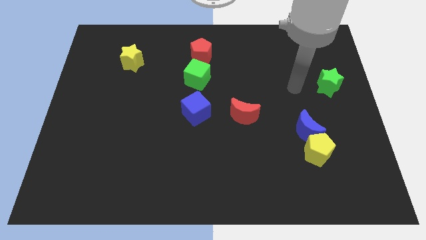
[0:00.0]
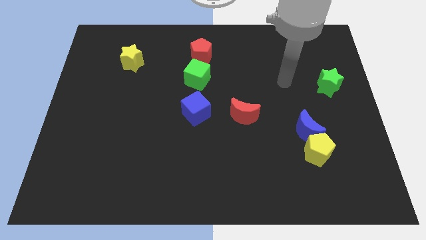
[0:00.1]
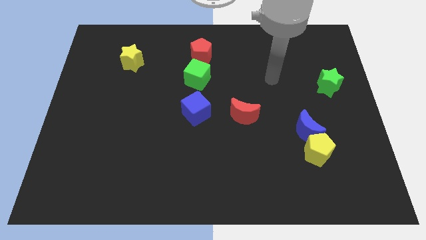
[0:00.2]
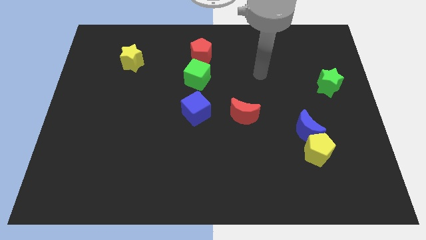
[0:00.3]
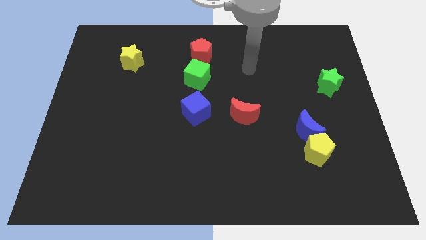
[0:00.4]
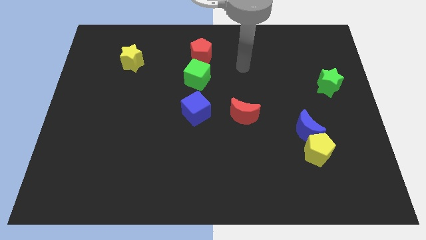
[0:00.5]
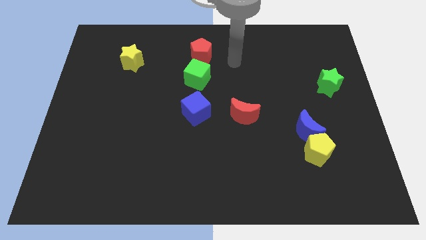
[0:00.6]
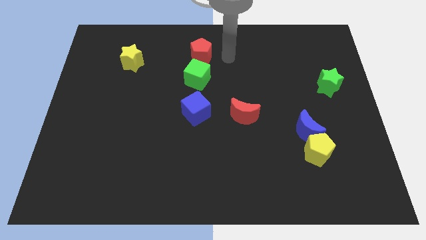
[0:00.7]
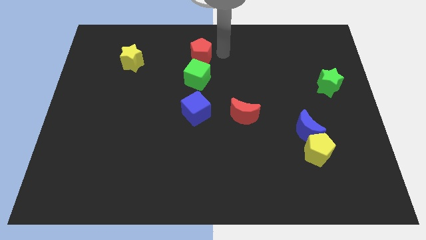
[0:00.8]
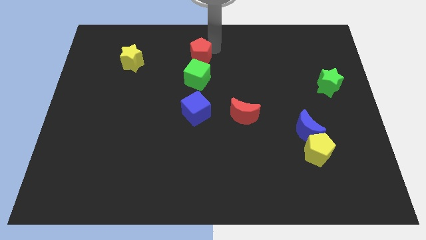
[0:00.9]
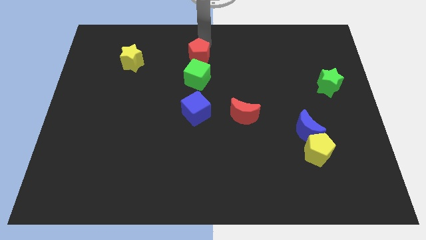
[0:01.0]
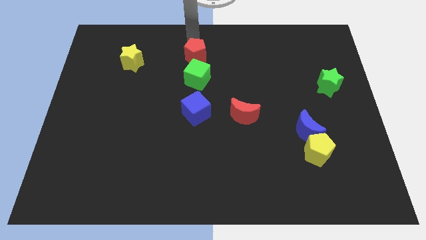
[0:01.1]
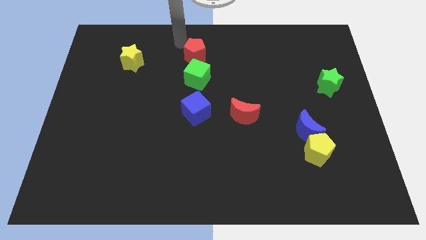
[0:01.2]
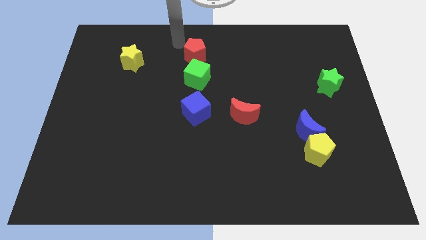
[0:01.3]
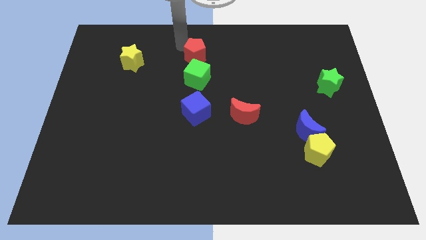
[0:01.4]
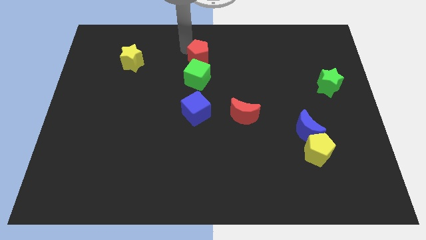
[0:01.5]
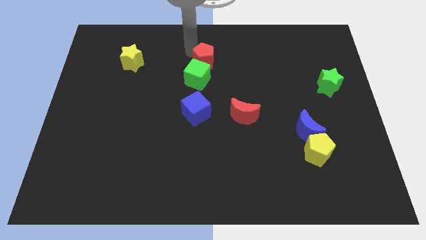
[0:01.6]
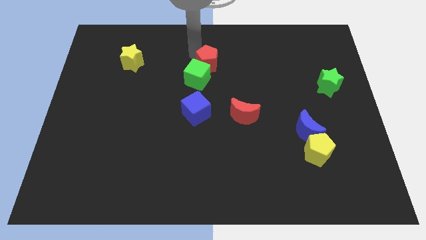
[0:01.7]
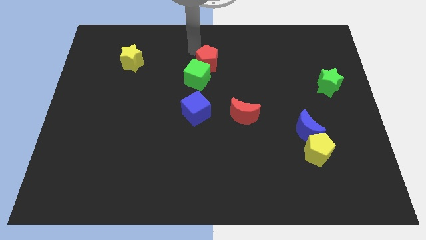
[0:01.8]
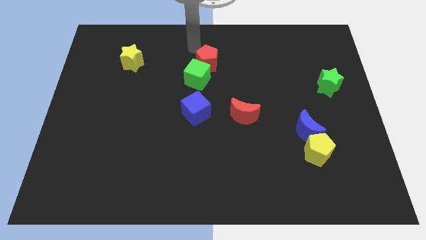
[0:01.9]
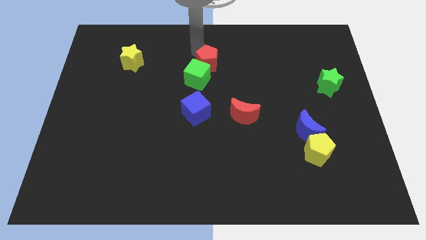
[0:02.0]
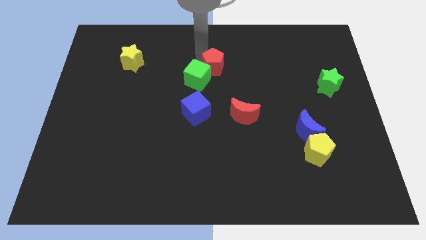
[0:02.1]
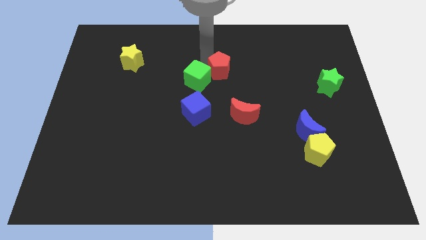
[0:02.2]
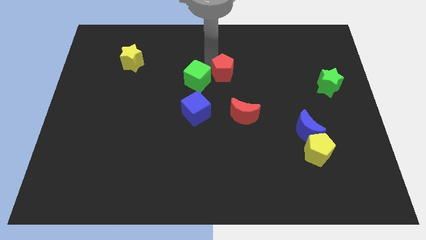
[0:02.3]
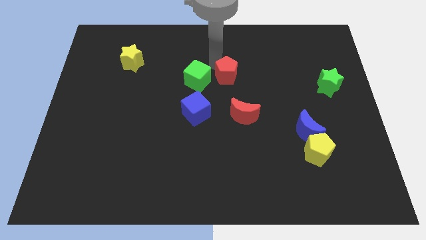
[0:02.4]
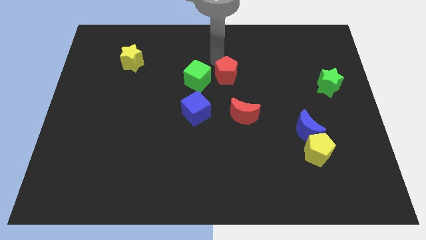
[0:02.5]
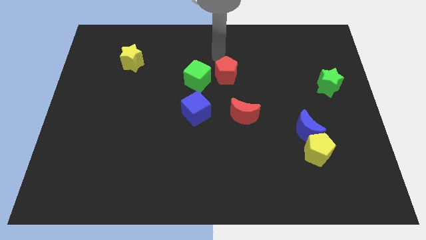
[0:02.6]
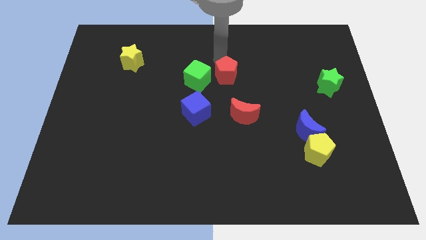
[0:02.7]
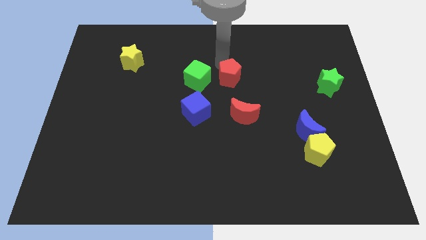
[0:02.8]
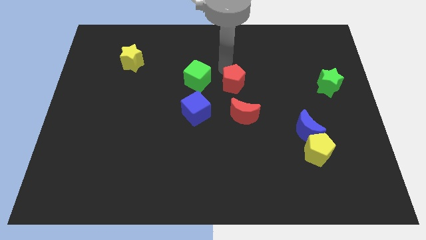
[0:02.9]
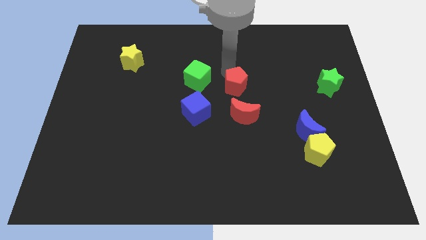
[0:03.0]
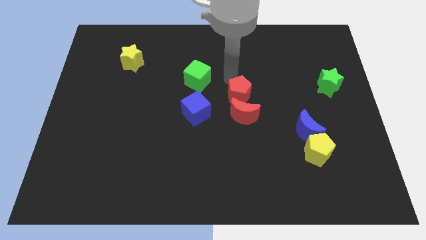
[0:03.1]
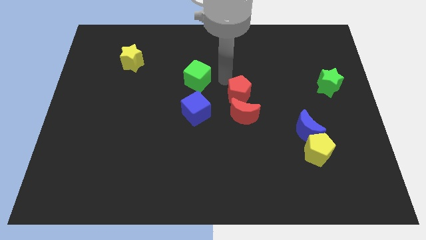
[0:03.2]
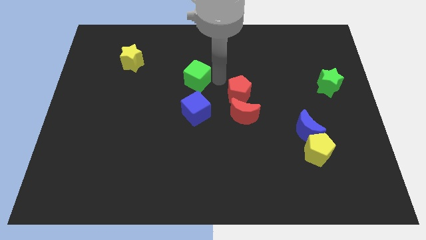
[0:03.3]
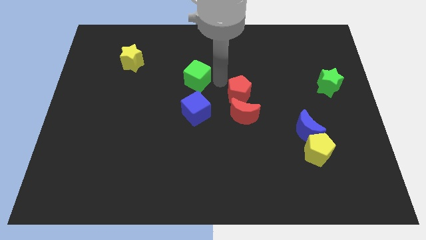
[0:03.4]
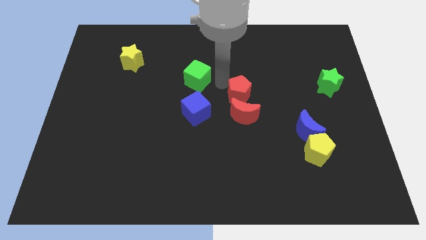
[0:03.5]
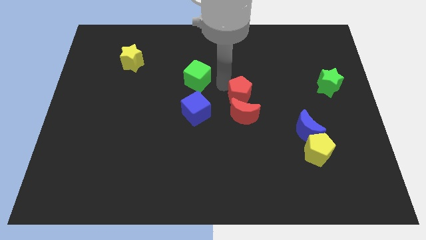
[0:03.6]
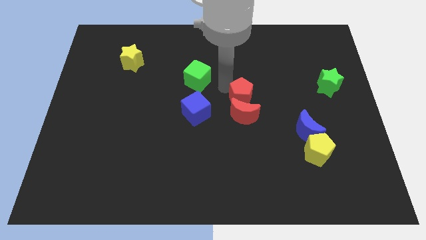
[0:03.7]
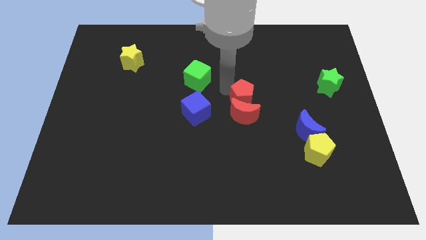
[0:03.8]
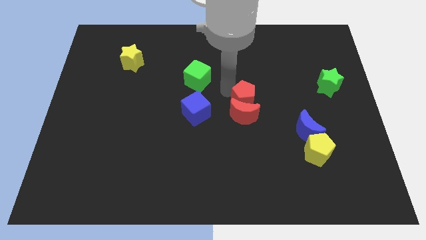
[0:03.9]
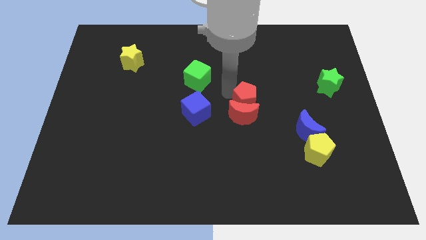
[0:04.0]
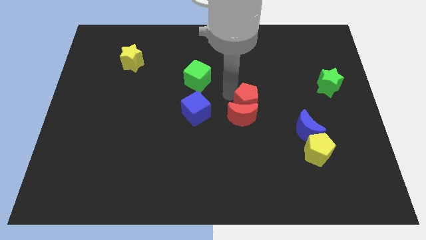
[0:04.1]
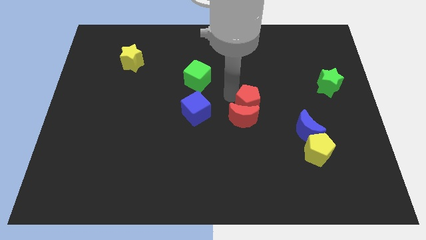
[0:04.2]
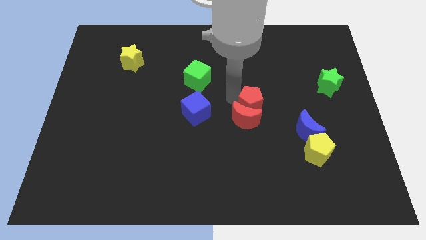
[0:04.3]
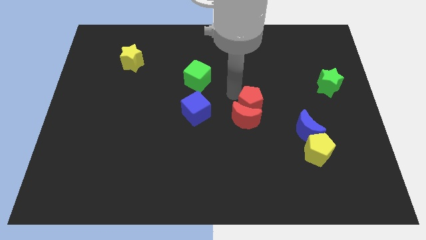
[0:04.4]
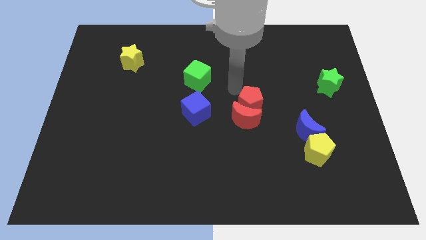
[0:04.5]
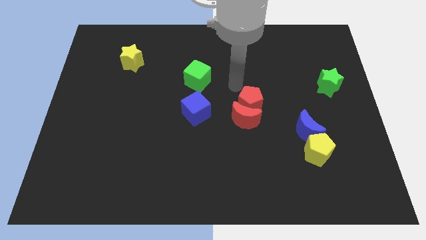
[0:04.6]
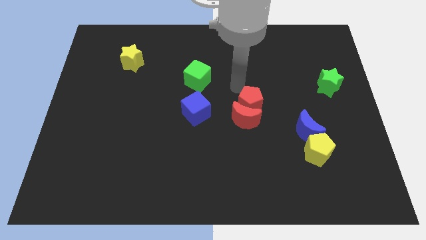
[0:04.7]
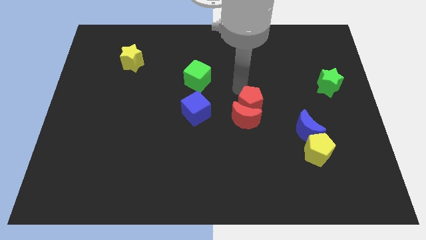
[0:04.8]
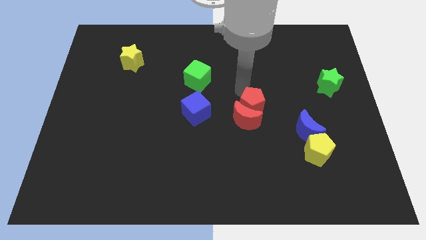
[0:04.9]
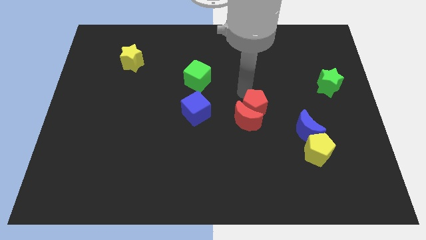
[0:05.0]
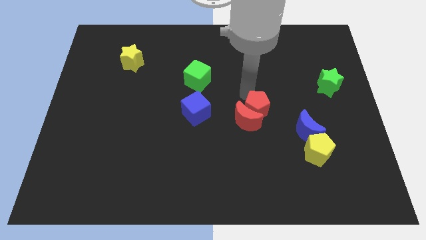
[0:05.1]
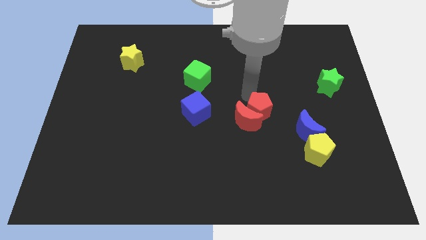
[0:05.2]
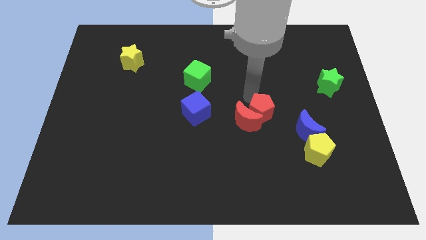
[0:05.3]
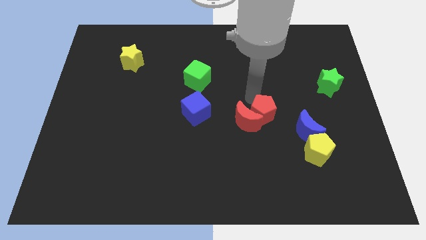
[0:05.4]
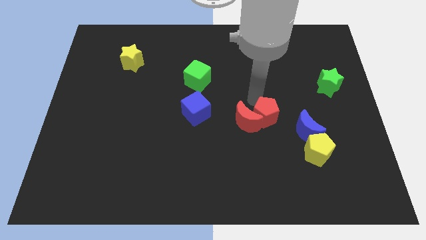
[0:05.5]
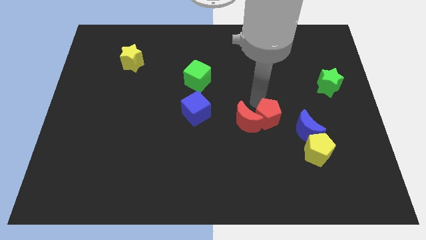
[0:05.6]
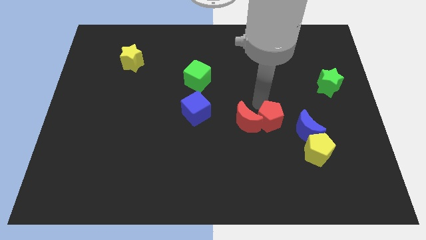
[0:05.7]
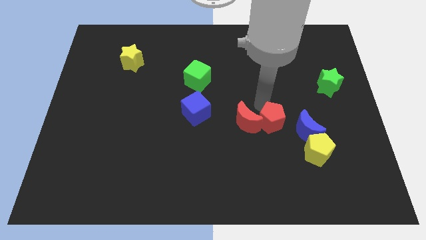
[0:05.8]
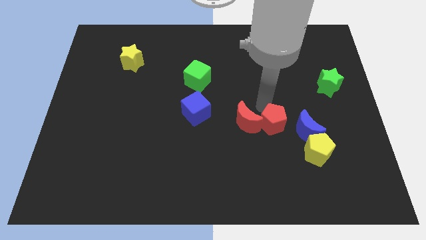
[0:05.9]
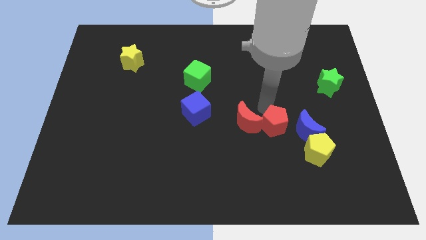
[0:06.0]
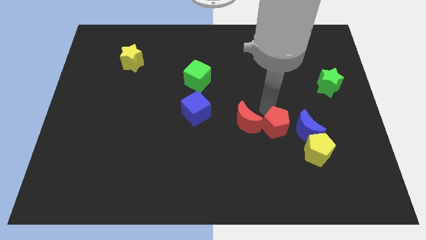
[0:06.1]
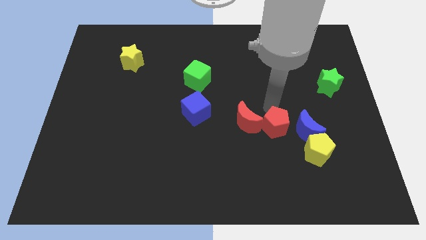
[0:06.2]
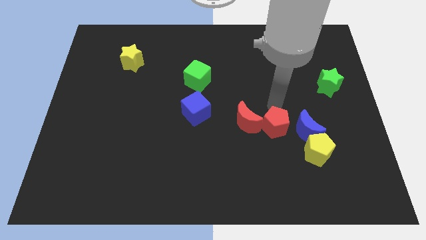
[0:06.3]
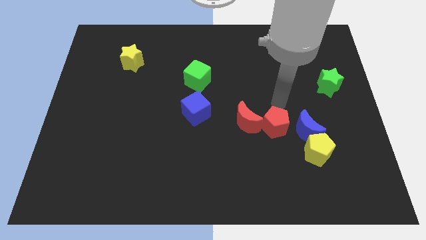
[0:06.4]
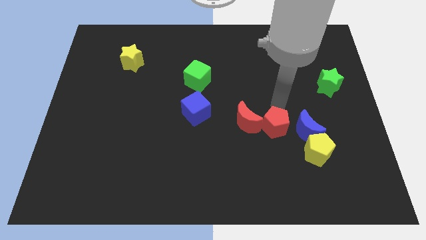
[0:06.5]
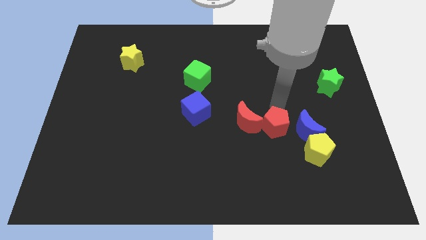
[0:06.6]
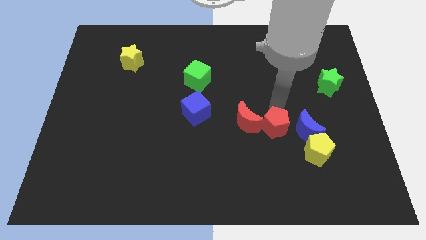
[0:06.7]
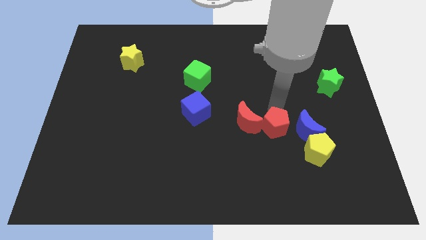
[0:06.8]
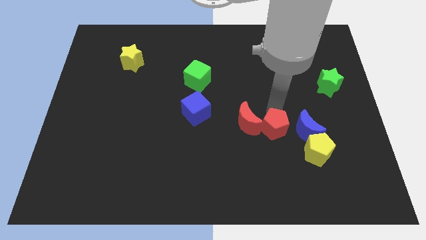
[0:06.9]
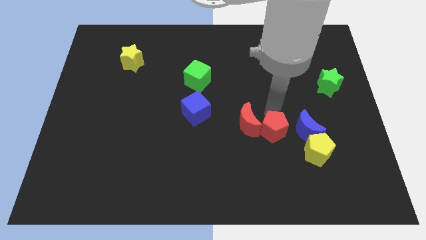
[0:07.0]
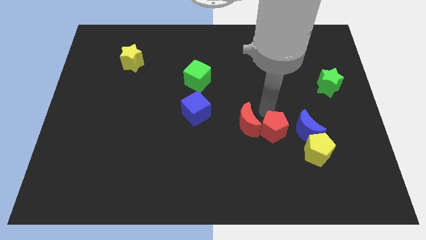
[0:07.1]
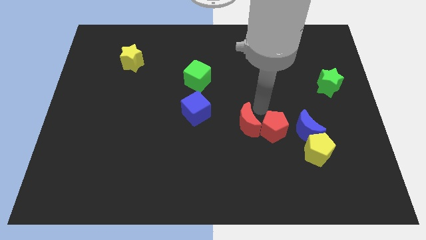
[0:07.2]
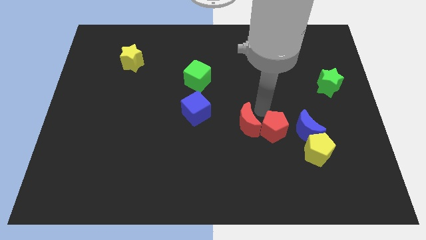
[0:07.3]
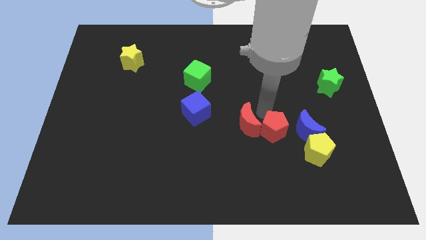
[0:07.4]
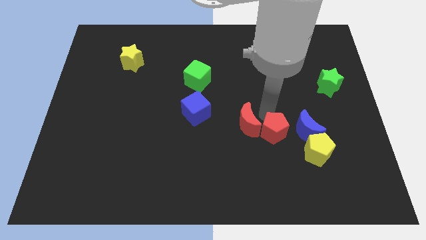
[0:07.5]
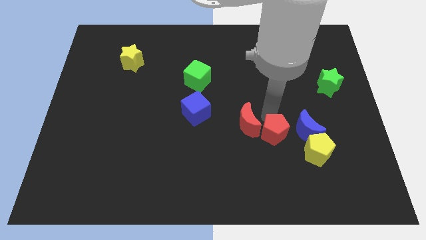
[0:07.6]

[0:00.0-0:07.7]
move the red pentagon to the bottom left of the blue moon
